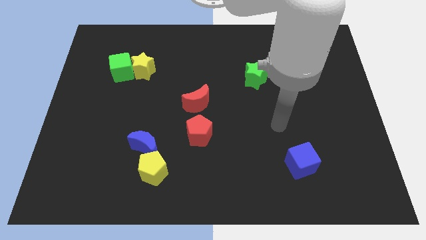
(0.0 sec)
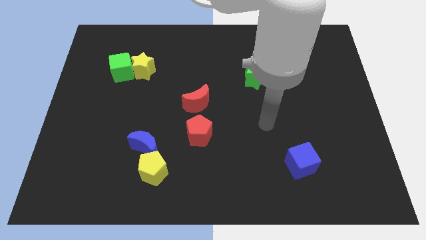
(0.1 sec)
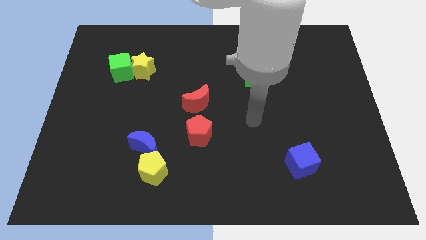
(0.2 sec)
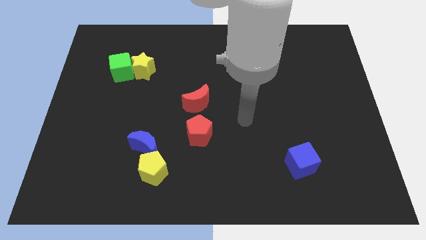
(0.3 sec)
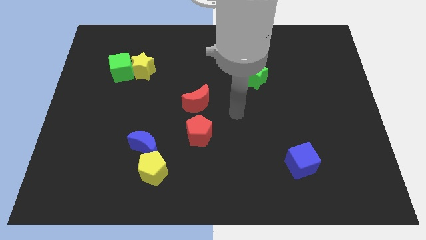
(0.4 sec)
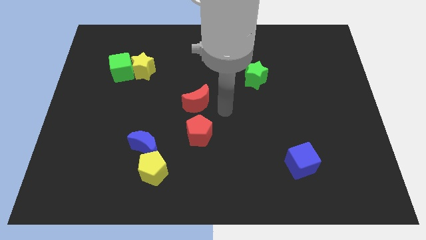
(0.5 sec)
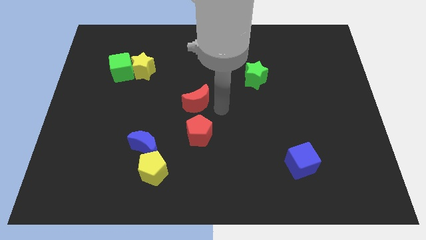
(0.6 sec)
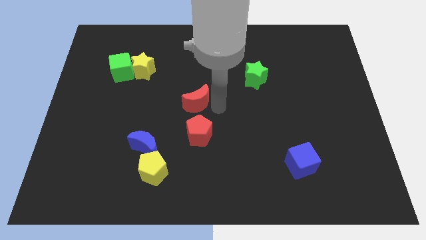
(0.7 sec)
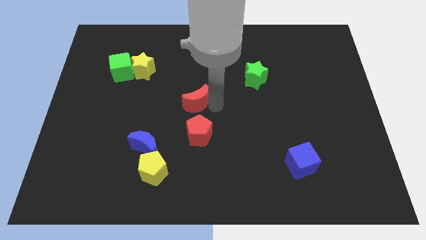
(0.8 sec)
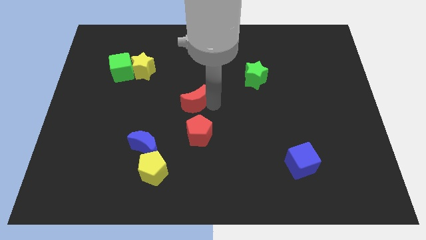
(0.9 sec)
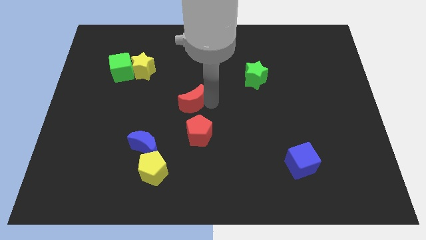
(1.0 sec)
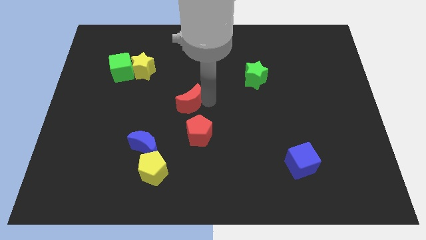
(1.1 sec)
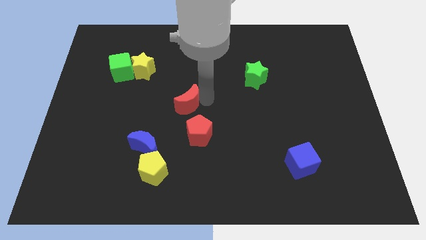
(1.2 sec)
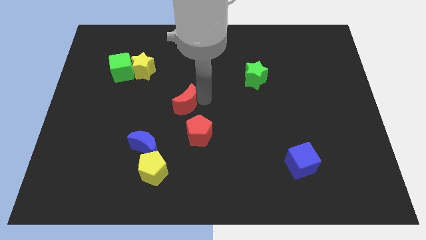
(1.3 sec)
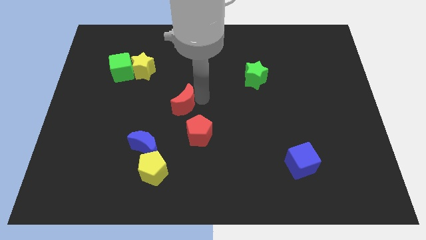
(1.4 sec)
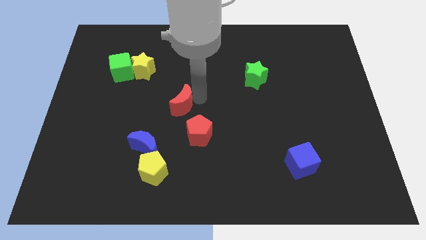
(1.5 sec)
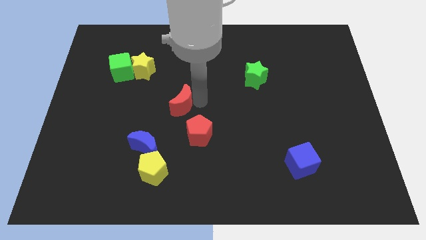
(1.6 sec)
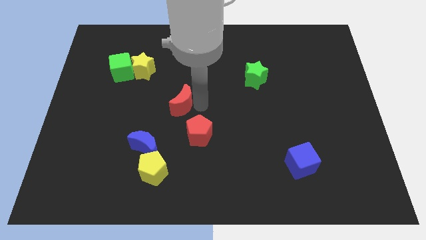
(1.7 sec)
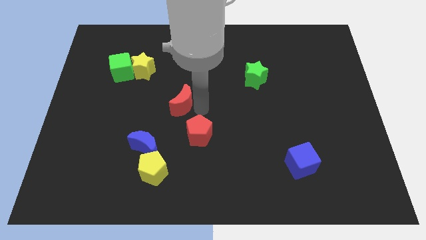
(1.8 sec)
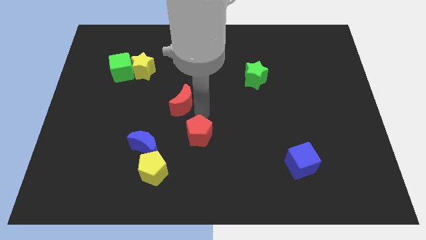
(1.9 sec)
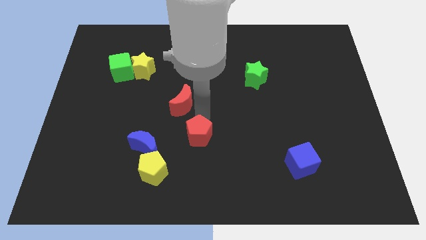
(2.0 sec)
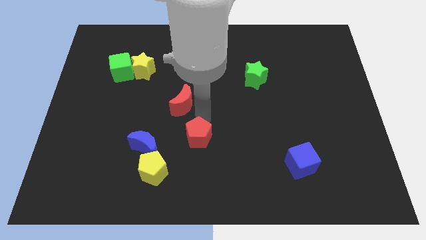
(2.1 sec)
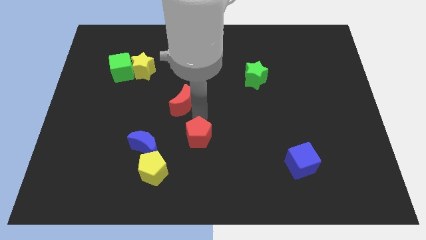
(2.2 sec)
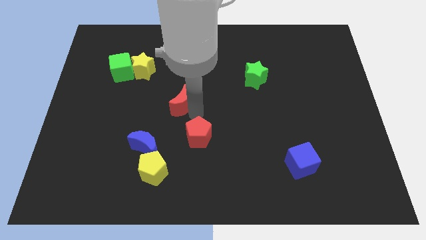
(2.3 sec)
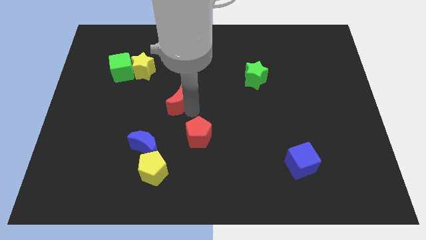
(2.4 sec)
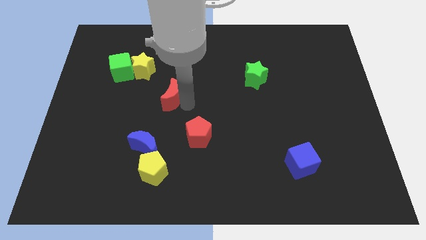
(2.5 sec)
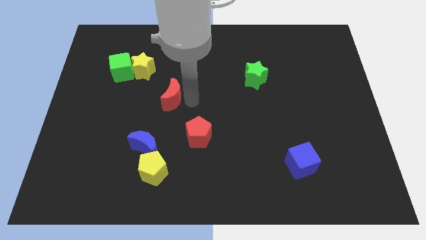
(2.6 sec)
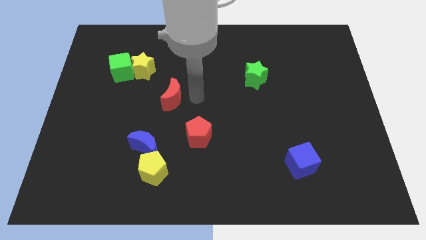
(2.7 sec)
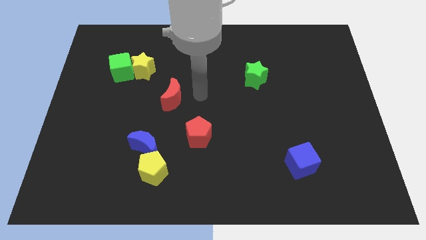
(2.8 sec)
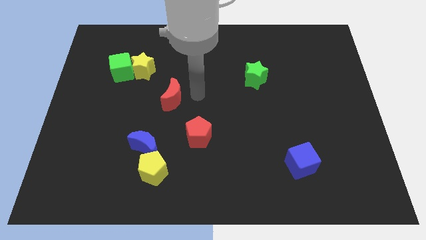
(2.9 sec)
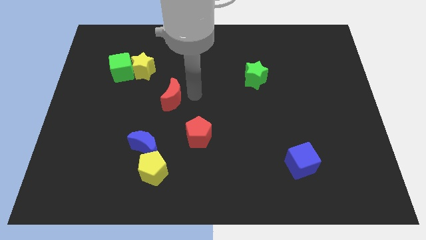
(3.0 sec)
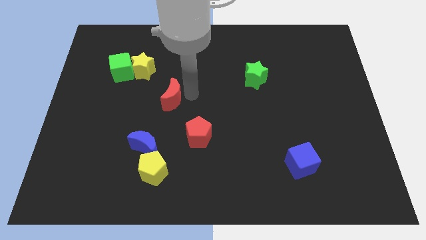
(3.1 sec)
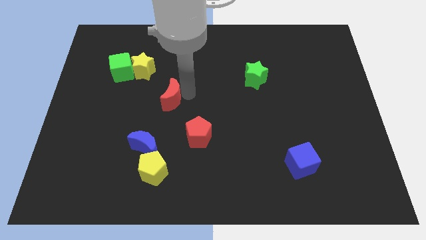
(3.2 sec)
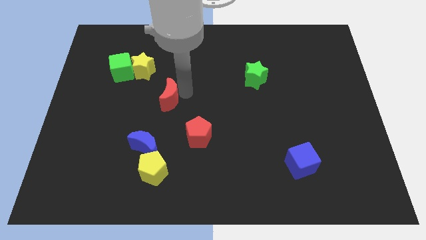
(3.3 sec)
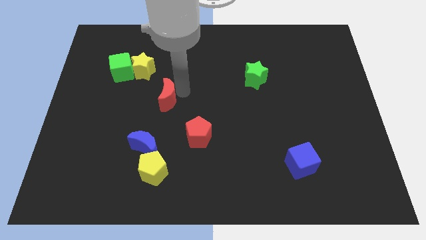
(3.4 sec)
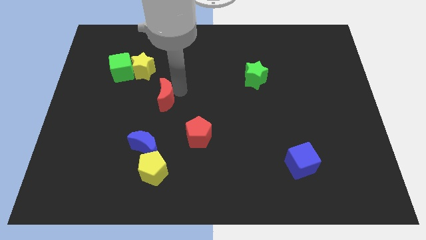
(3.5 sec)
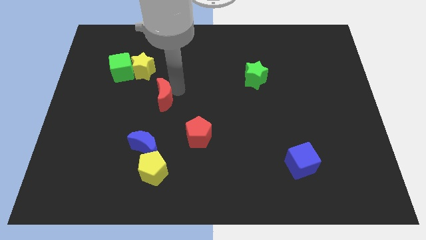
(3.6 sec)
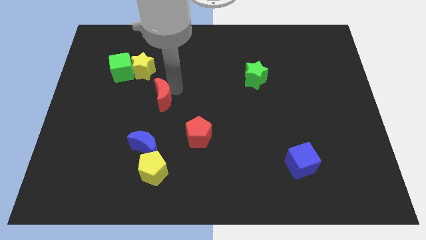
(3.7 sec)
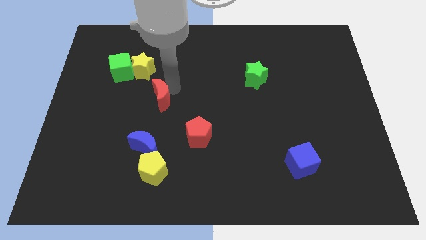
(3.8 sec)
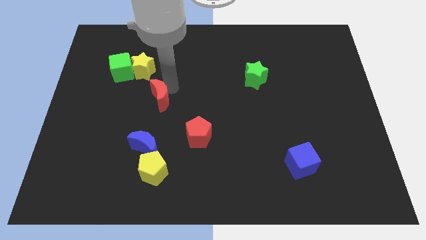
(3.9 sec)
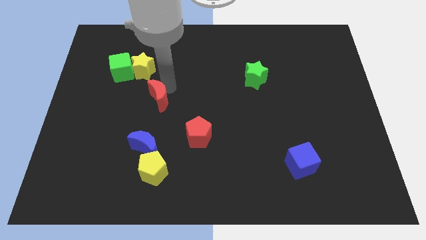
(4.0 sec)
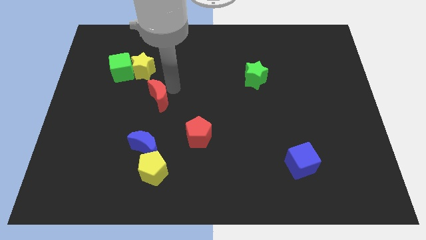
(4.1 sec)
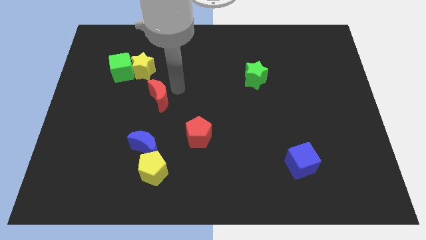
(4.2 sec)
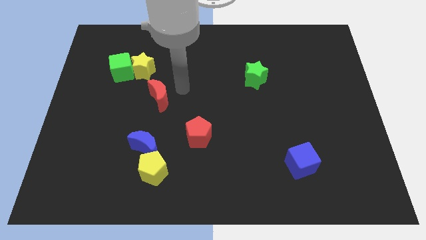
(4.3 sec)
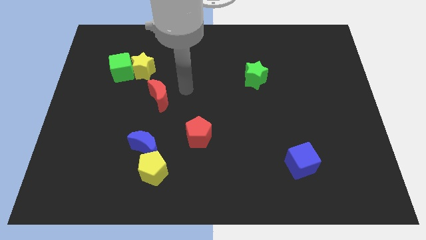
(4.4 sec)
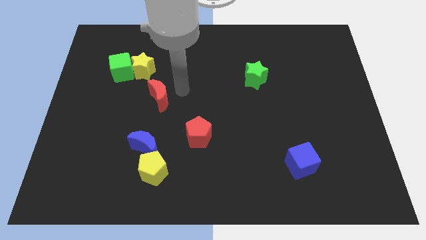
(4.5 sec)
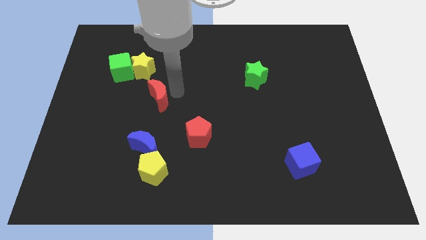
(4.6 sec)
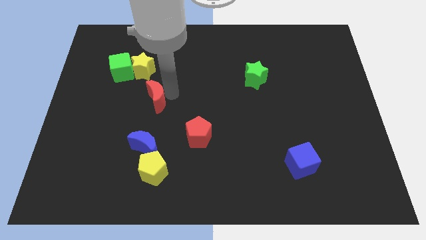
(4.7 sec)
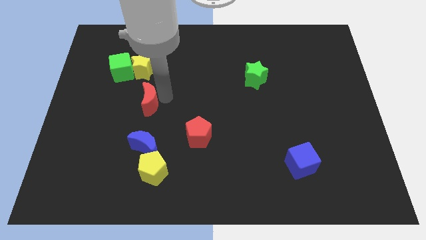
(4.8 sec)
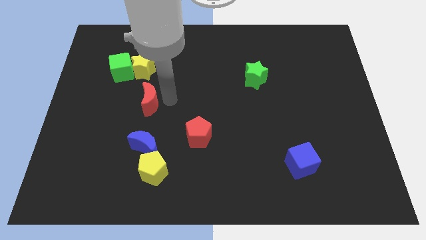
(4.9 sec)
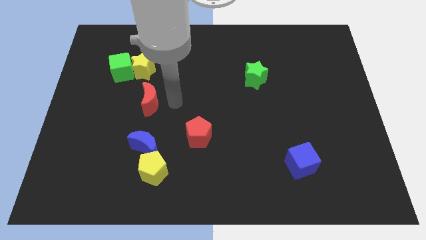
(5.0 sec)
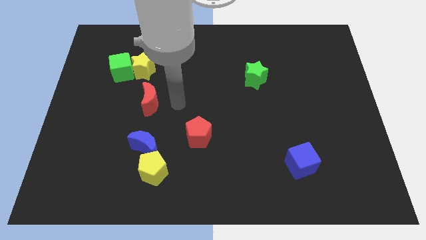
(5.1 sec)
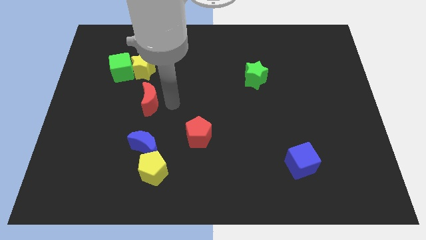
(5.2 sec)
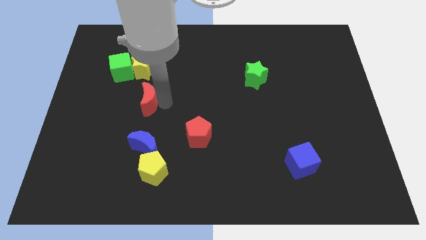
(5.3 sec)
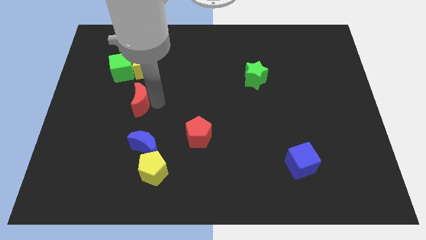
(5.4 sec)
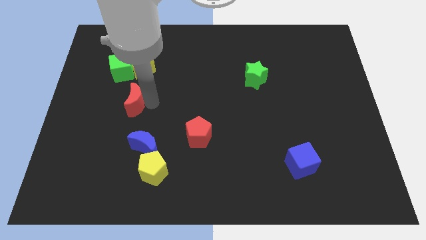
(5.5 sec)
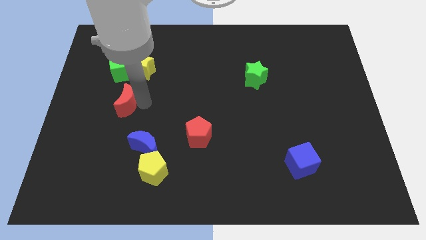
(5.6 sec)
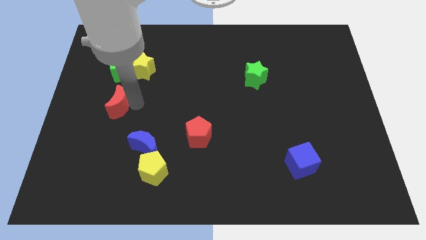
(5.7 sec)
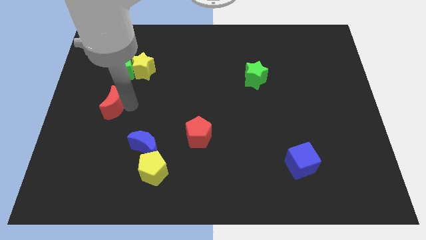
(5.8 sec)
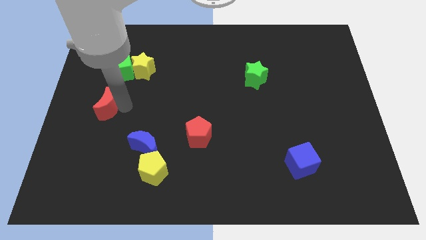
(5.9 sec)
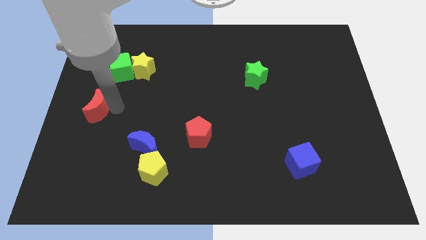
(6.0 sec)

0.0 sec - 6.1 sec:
slide the red moon to the left side
